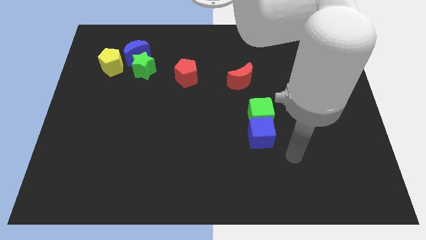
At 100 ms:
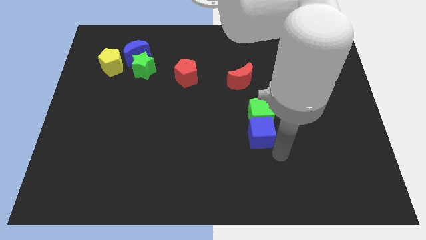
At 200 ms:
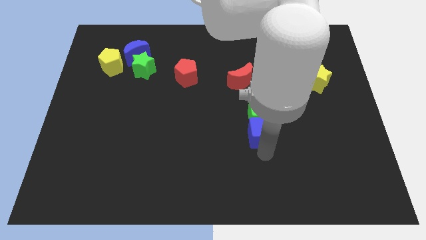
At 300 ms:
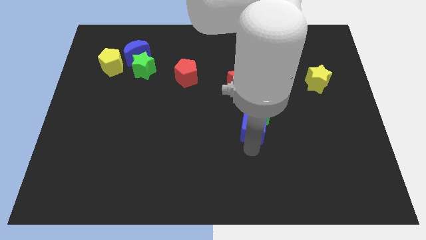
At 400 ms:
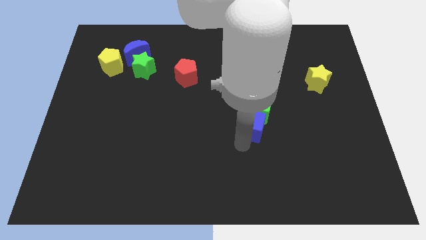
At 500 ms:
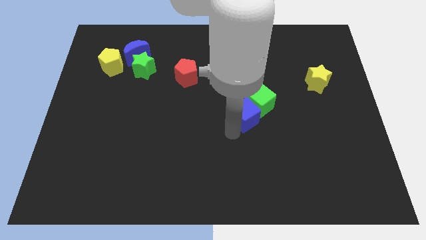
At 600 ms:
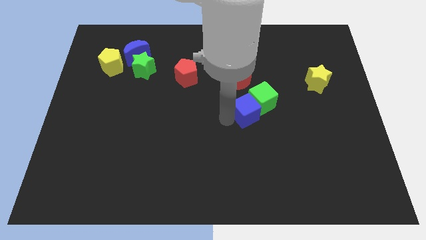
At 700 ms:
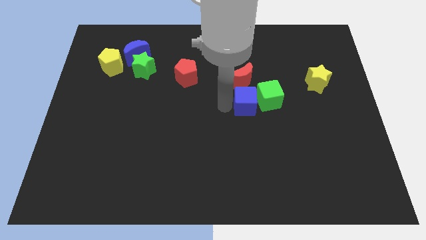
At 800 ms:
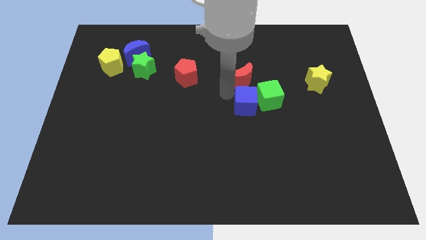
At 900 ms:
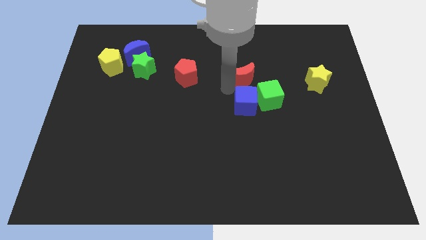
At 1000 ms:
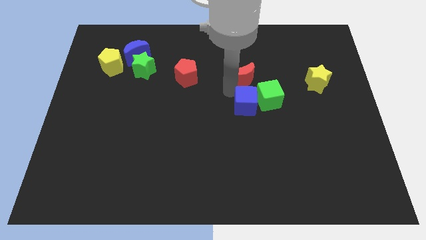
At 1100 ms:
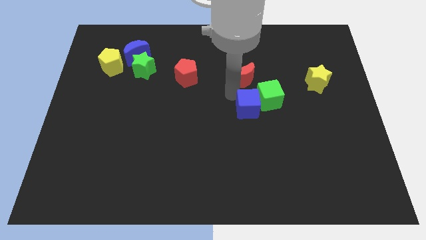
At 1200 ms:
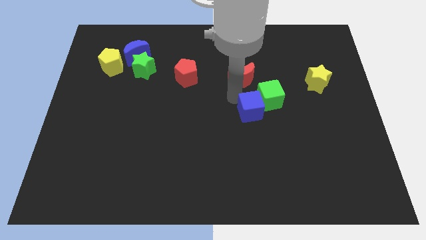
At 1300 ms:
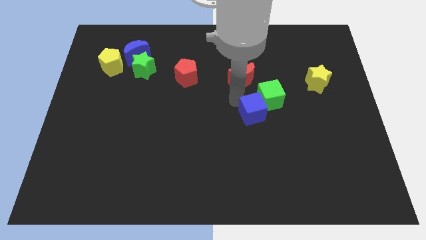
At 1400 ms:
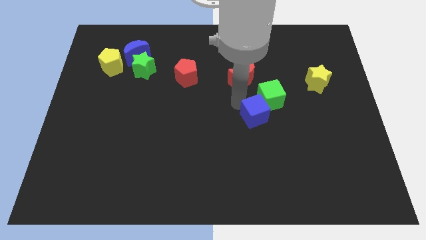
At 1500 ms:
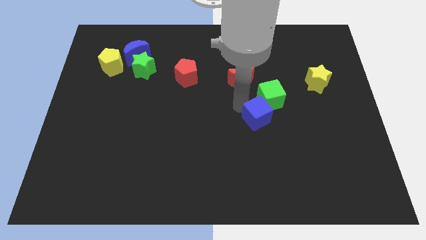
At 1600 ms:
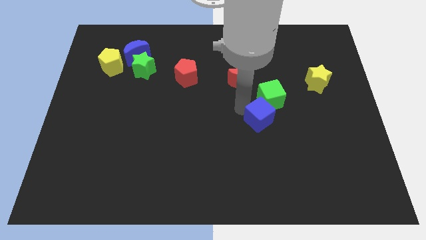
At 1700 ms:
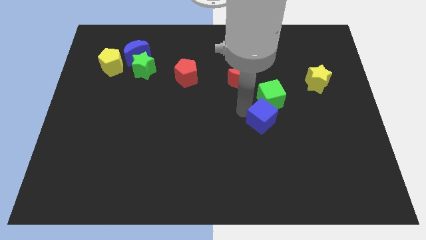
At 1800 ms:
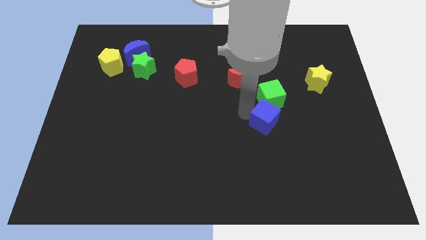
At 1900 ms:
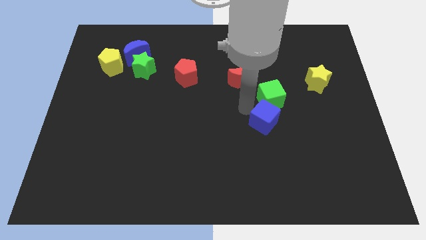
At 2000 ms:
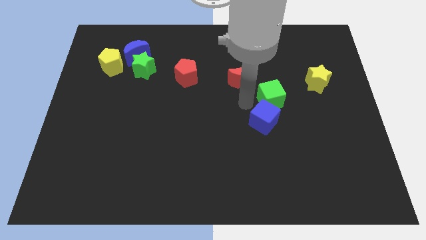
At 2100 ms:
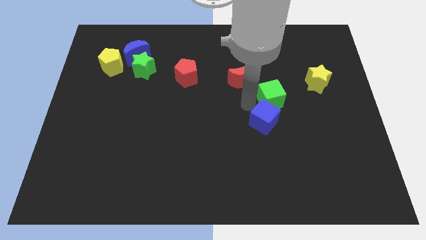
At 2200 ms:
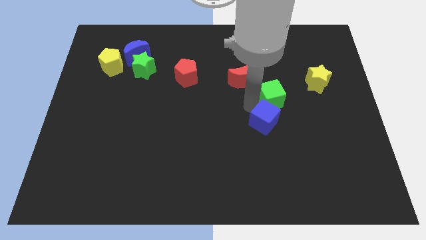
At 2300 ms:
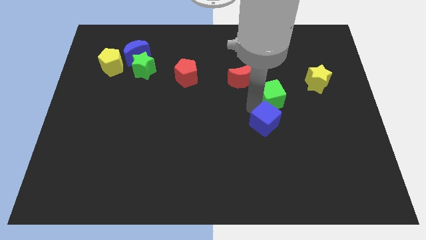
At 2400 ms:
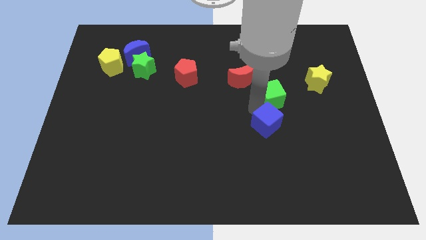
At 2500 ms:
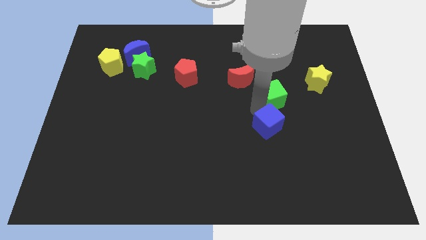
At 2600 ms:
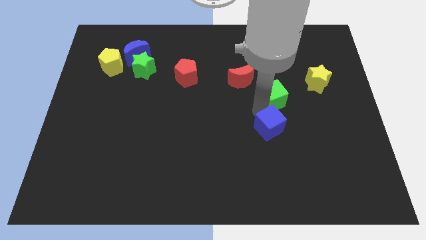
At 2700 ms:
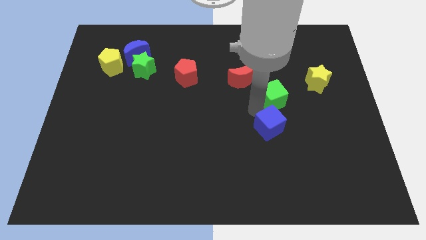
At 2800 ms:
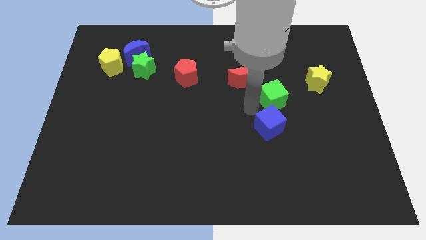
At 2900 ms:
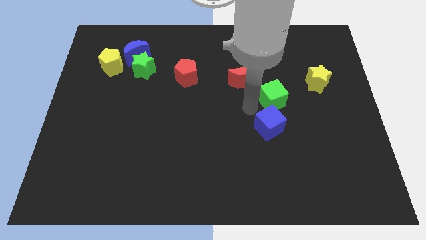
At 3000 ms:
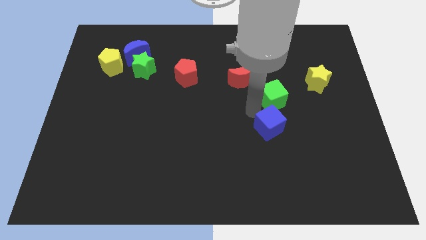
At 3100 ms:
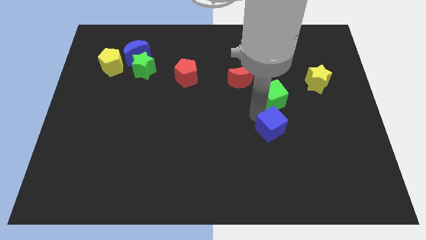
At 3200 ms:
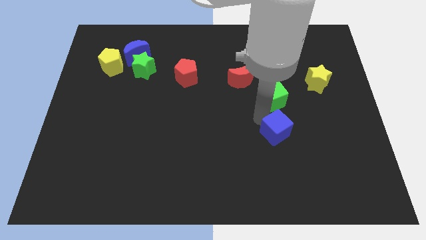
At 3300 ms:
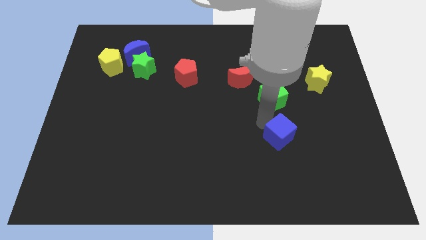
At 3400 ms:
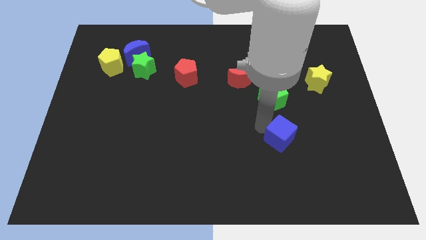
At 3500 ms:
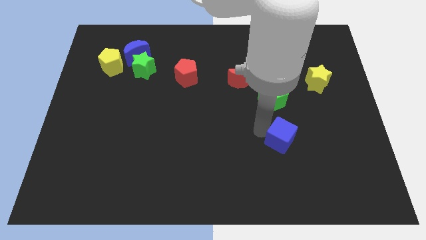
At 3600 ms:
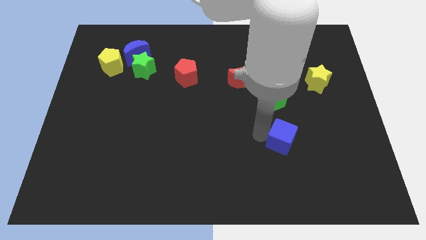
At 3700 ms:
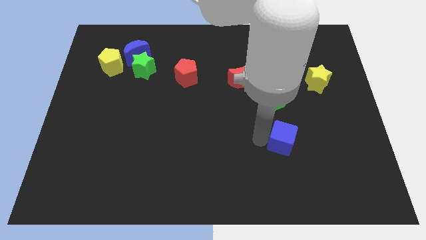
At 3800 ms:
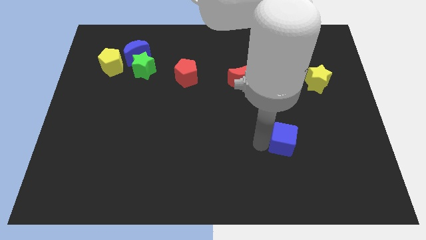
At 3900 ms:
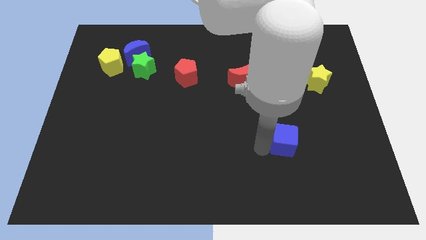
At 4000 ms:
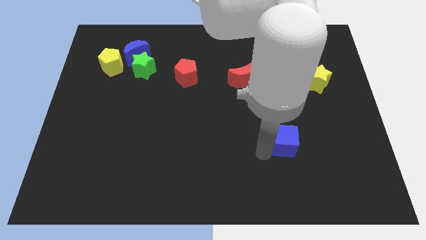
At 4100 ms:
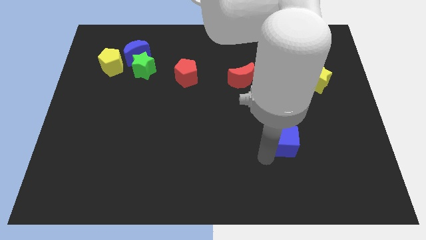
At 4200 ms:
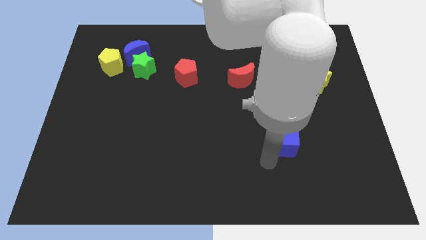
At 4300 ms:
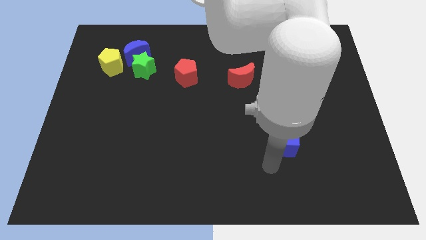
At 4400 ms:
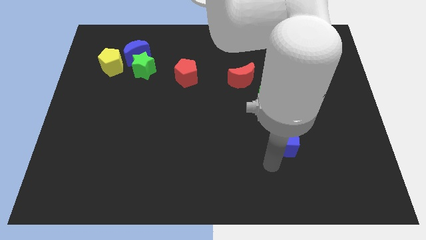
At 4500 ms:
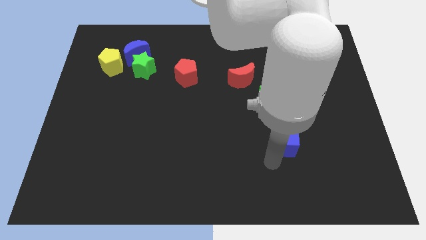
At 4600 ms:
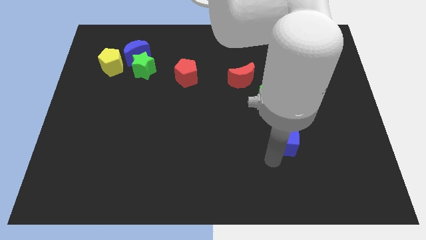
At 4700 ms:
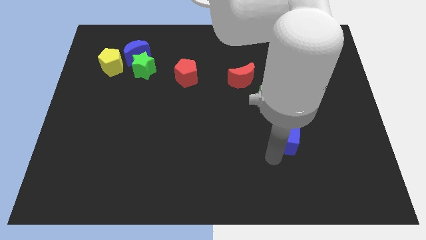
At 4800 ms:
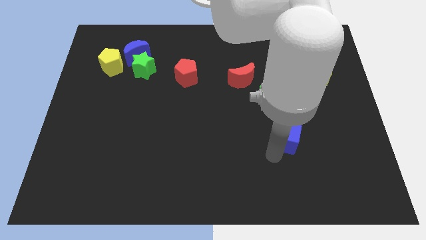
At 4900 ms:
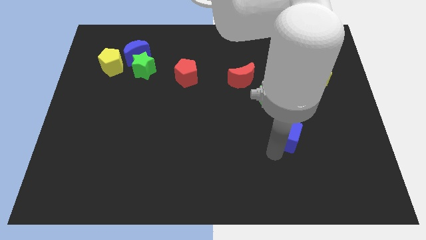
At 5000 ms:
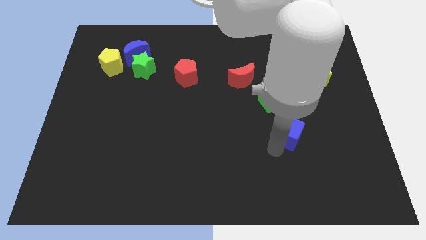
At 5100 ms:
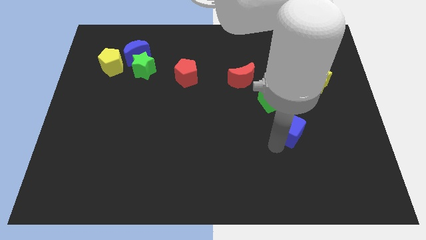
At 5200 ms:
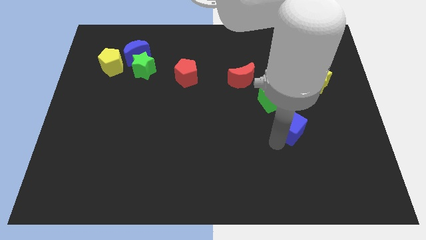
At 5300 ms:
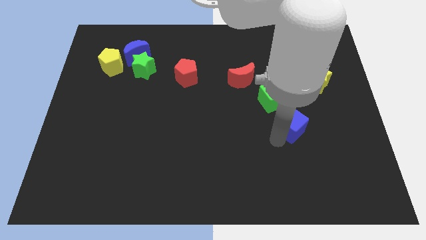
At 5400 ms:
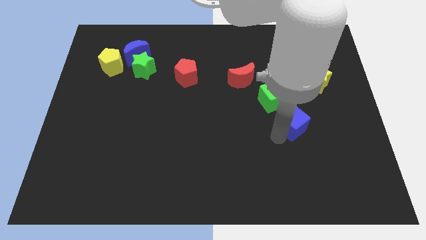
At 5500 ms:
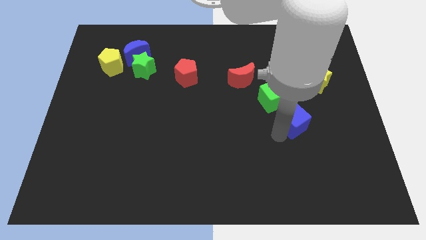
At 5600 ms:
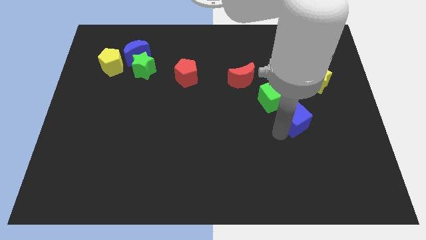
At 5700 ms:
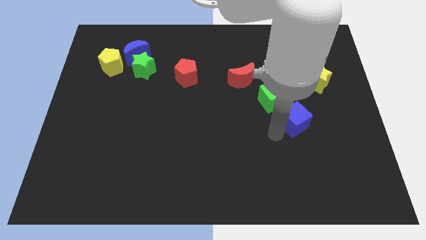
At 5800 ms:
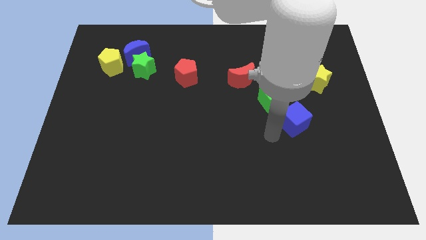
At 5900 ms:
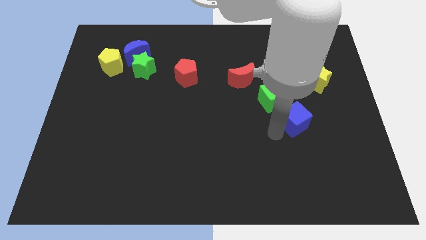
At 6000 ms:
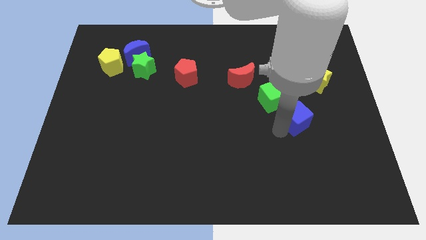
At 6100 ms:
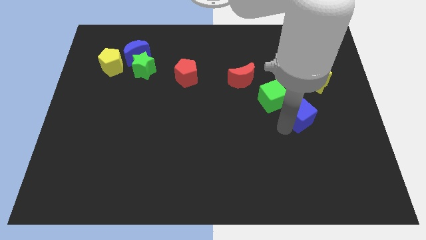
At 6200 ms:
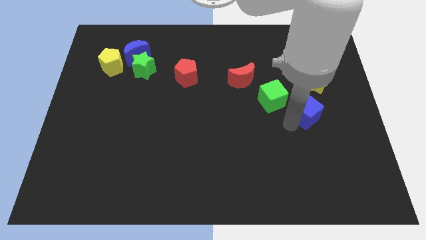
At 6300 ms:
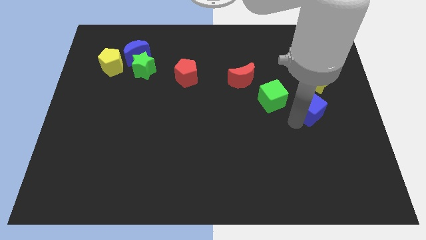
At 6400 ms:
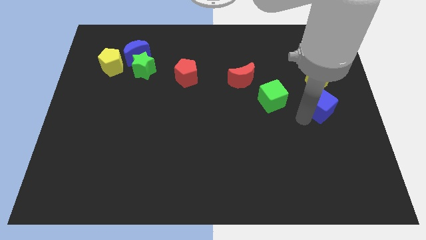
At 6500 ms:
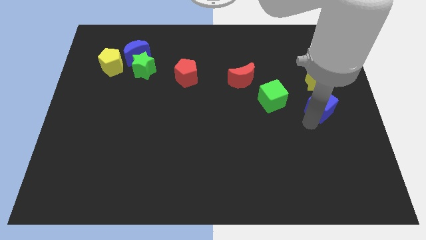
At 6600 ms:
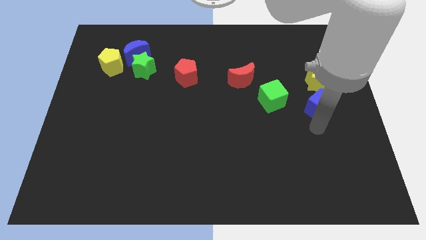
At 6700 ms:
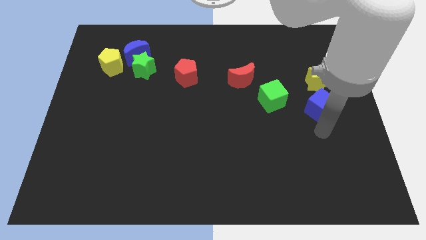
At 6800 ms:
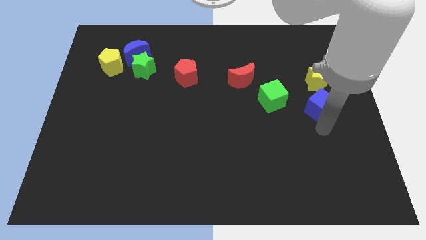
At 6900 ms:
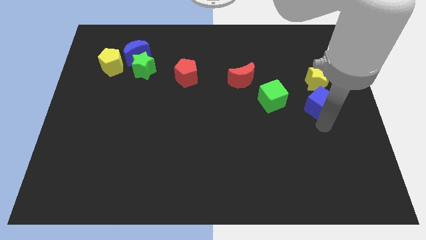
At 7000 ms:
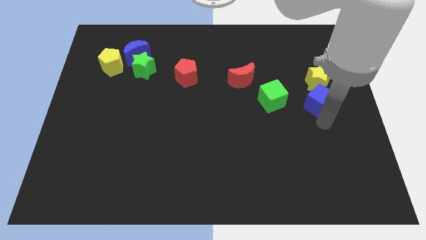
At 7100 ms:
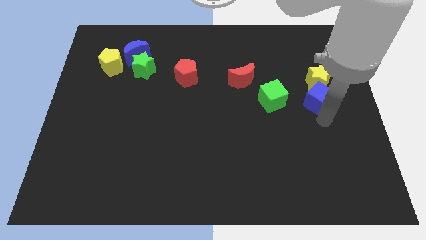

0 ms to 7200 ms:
put the blue cube to the yellow star

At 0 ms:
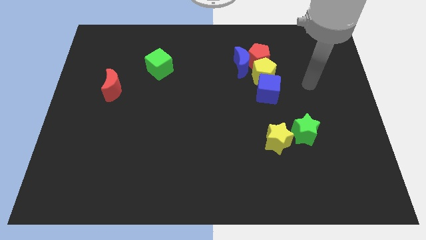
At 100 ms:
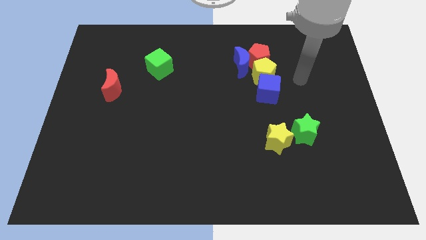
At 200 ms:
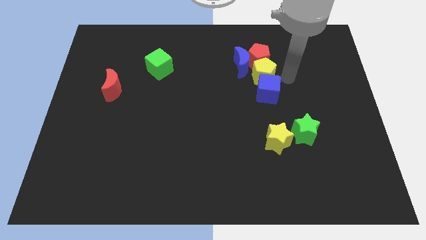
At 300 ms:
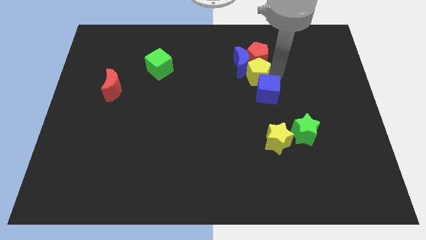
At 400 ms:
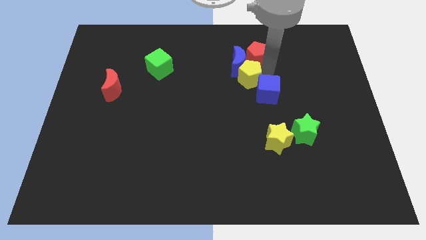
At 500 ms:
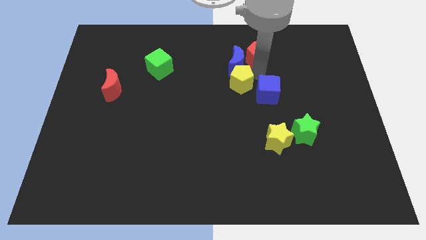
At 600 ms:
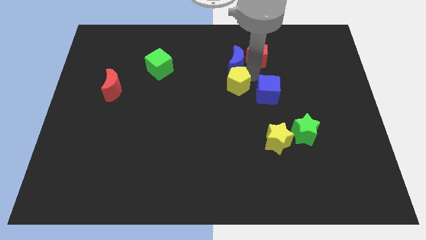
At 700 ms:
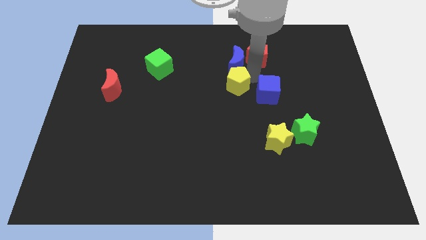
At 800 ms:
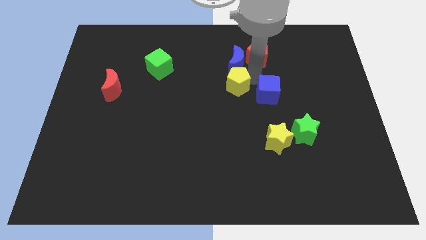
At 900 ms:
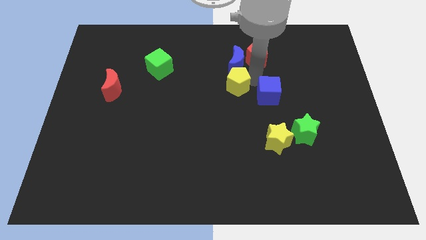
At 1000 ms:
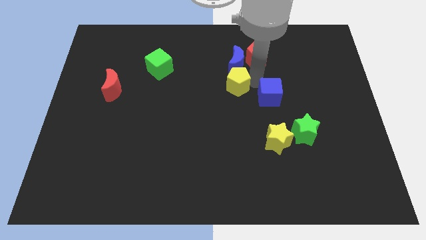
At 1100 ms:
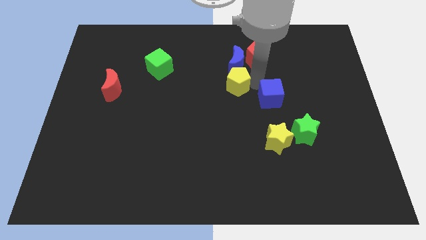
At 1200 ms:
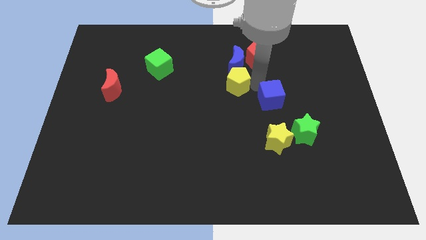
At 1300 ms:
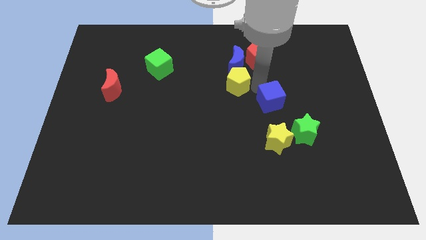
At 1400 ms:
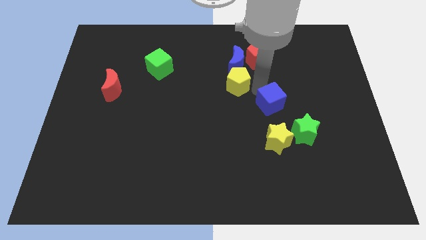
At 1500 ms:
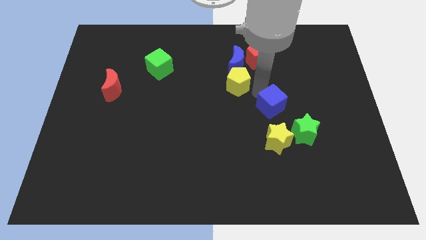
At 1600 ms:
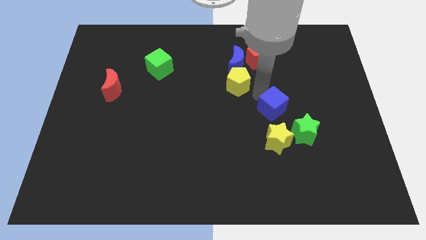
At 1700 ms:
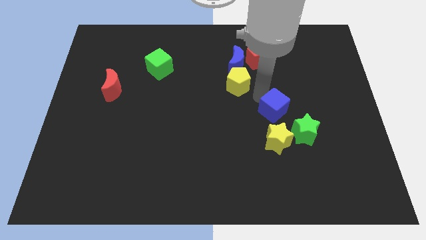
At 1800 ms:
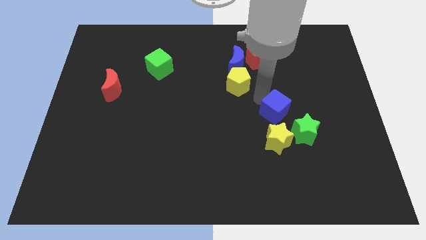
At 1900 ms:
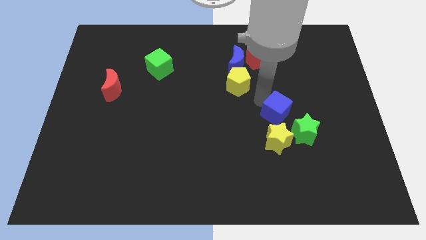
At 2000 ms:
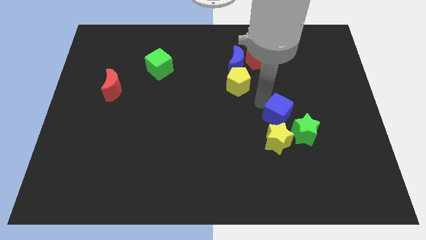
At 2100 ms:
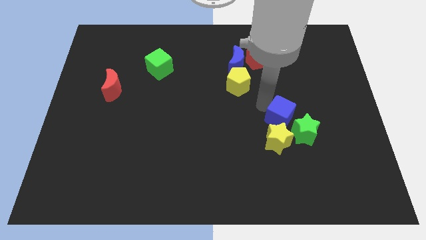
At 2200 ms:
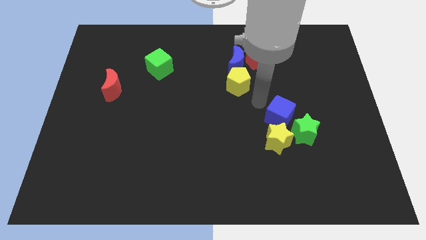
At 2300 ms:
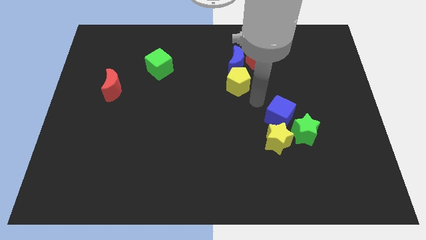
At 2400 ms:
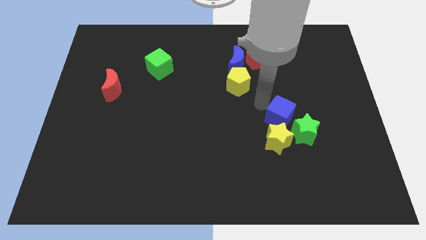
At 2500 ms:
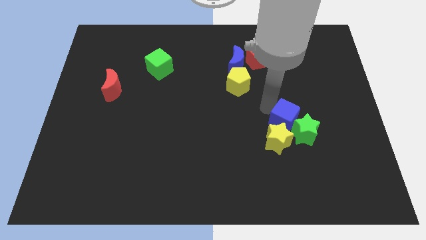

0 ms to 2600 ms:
push the blue cube towards the green star
